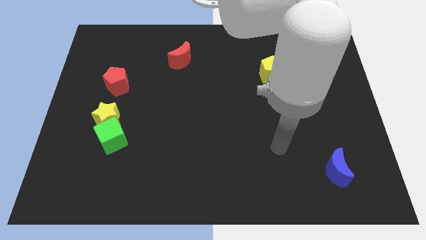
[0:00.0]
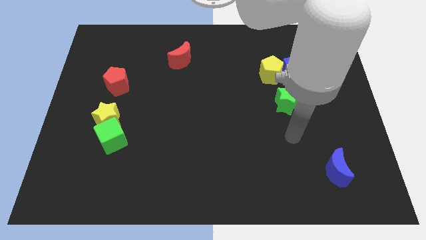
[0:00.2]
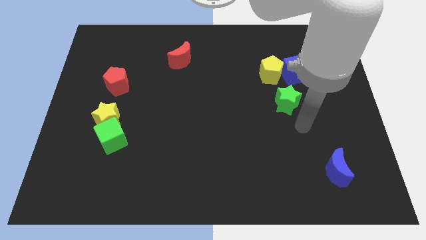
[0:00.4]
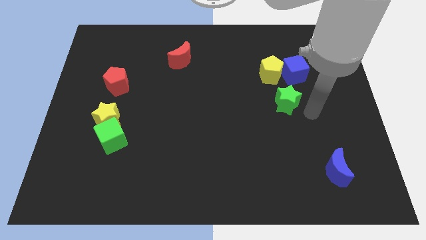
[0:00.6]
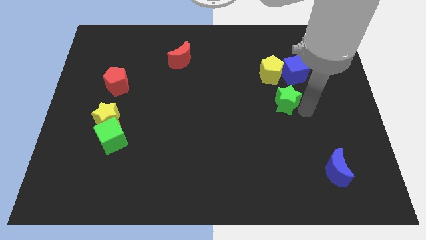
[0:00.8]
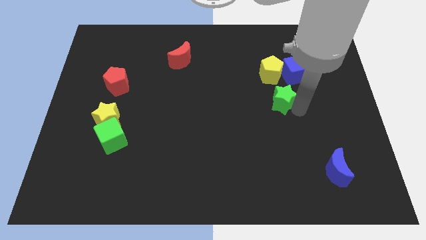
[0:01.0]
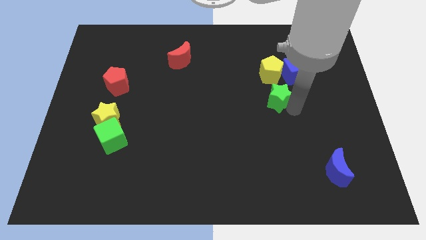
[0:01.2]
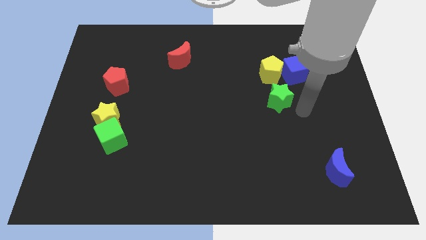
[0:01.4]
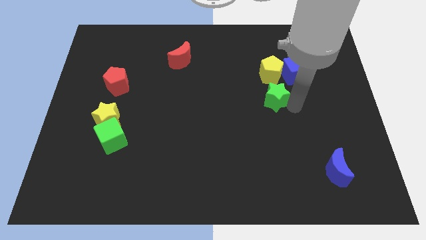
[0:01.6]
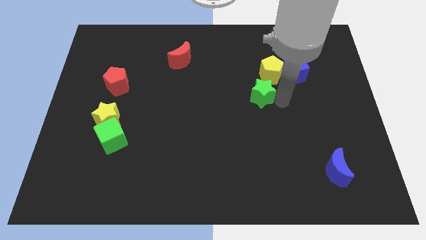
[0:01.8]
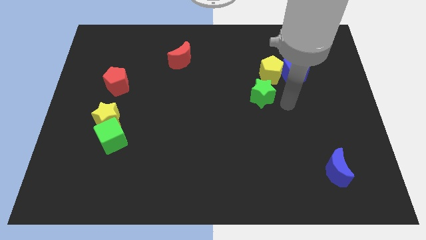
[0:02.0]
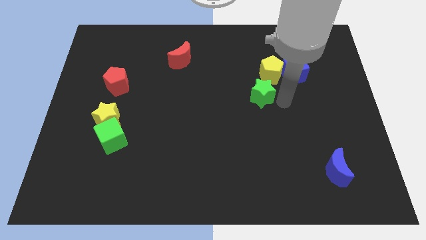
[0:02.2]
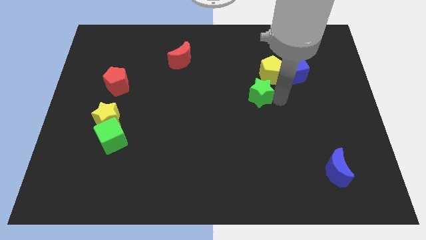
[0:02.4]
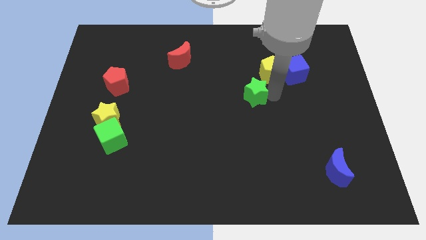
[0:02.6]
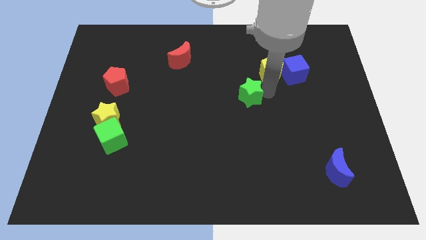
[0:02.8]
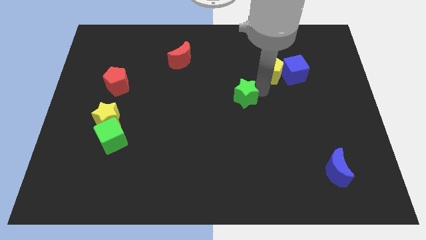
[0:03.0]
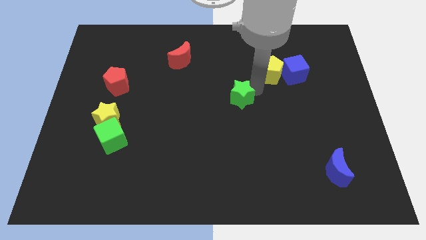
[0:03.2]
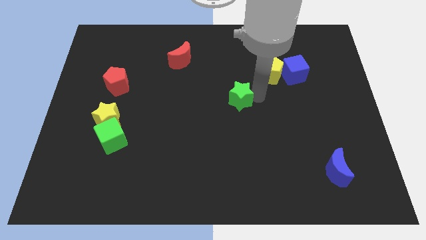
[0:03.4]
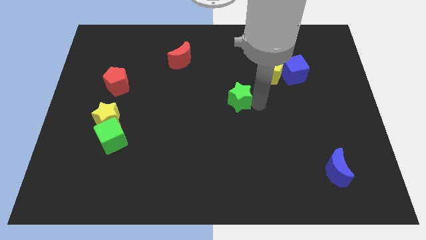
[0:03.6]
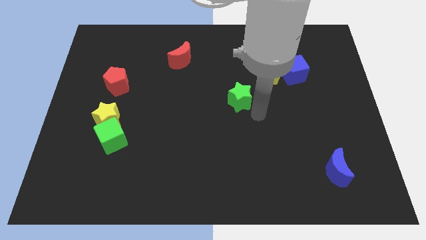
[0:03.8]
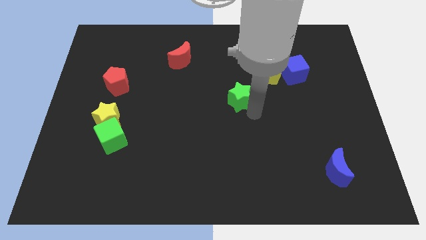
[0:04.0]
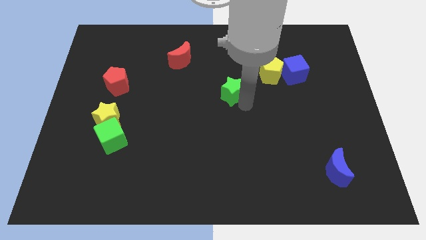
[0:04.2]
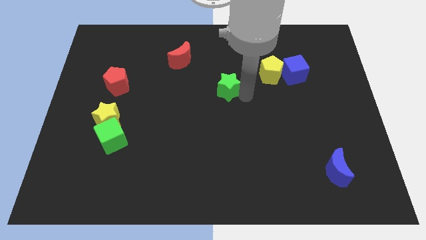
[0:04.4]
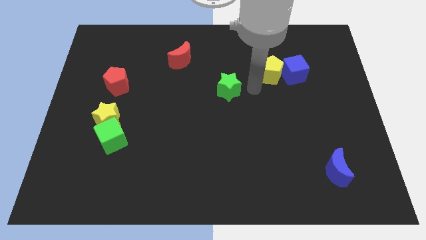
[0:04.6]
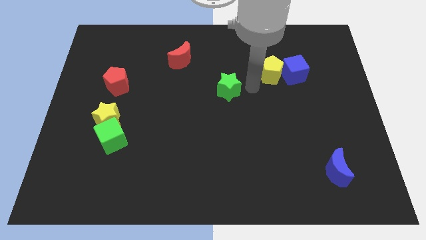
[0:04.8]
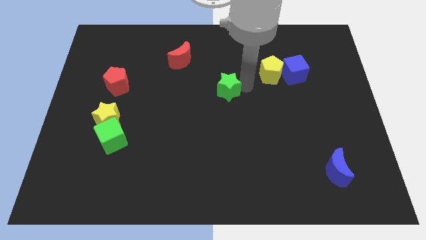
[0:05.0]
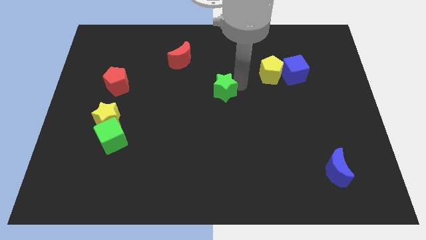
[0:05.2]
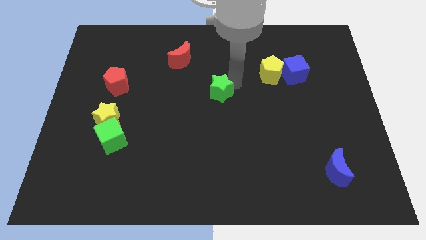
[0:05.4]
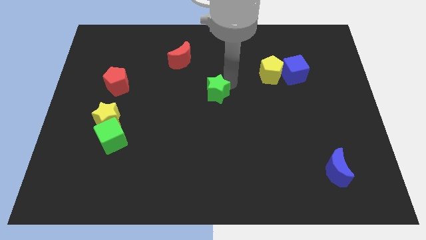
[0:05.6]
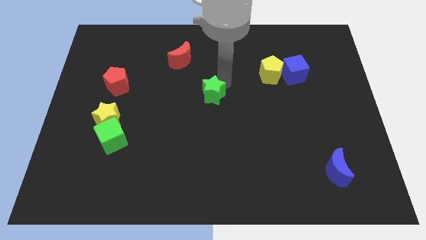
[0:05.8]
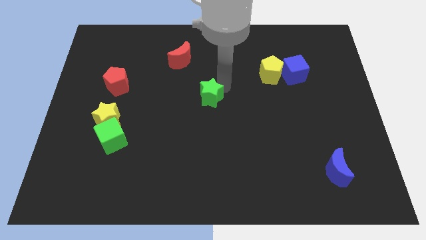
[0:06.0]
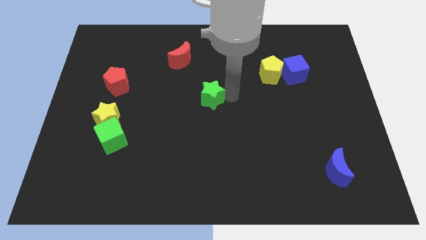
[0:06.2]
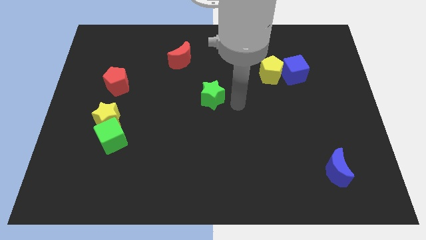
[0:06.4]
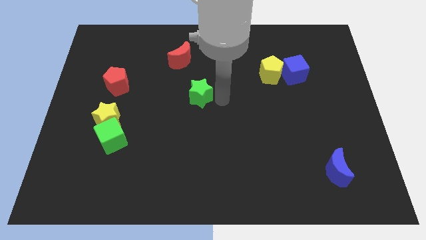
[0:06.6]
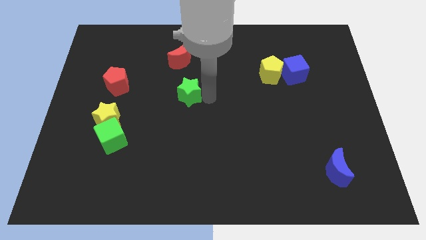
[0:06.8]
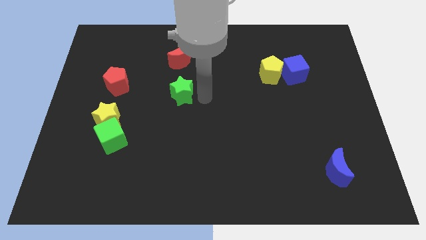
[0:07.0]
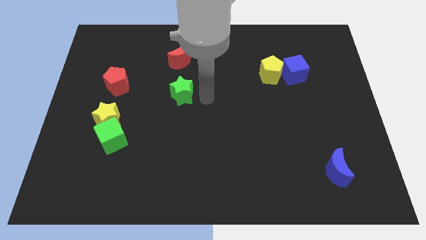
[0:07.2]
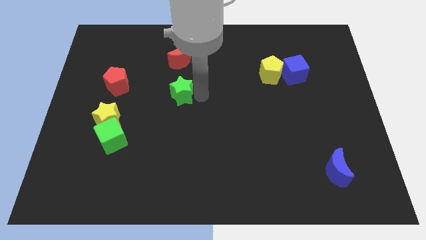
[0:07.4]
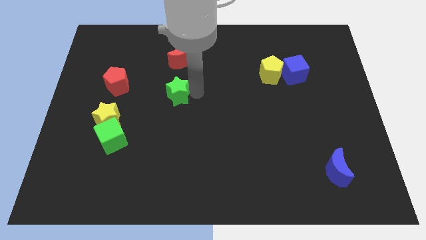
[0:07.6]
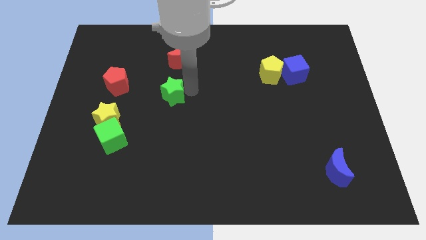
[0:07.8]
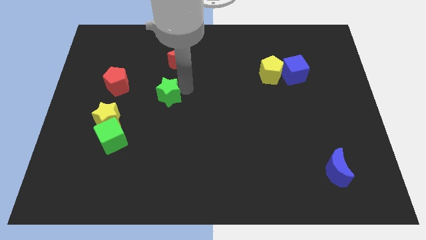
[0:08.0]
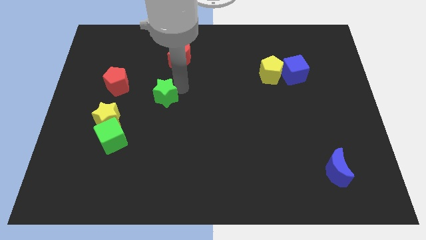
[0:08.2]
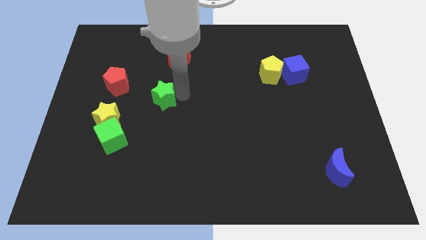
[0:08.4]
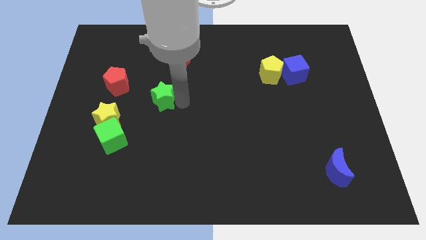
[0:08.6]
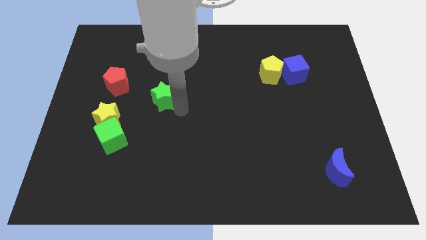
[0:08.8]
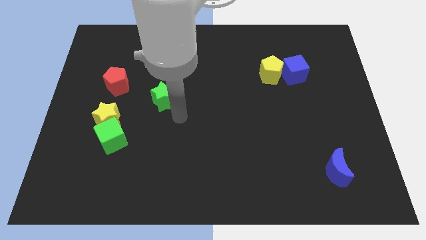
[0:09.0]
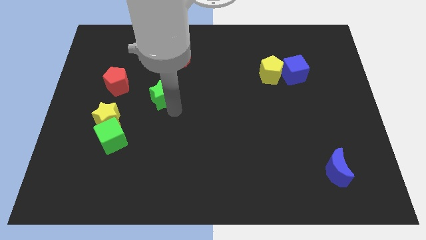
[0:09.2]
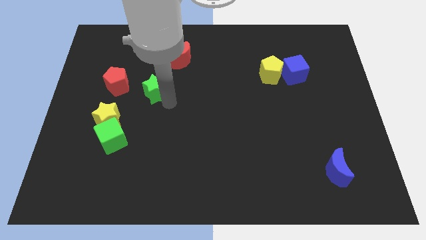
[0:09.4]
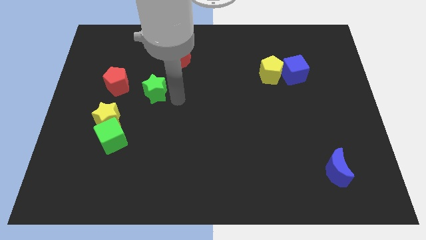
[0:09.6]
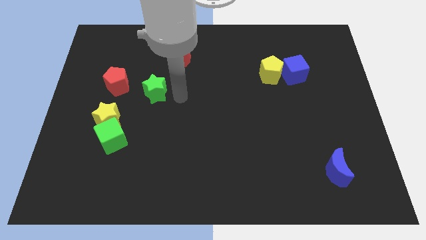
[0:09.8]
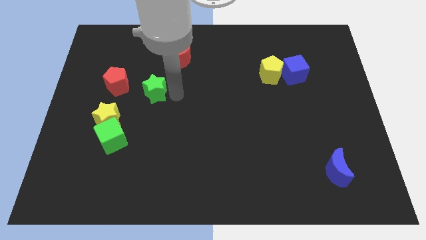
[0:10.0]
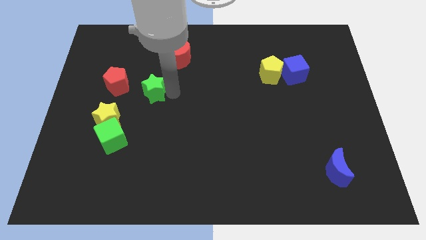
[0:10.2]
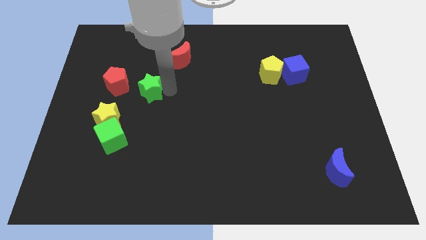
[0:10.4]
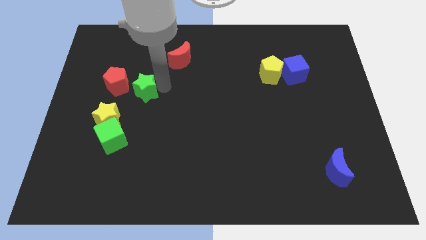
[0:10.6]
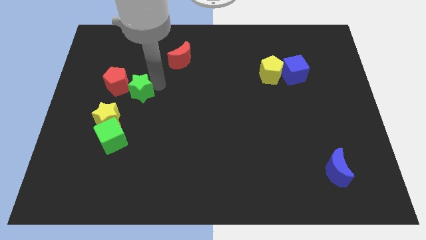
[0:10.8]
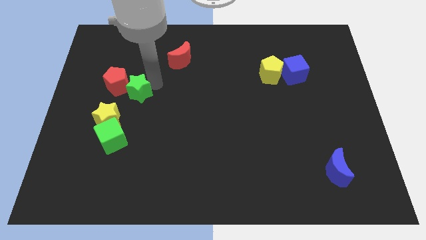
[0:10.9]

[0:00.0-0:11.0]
push the green star towards the red pentagon

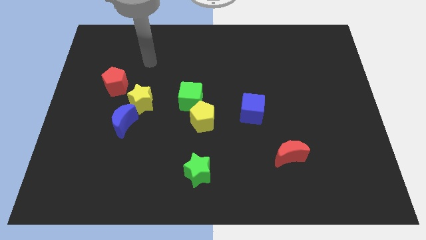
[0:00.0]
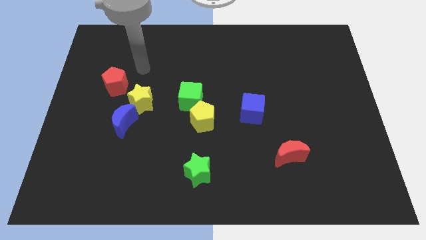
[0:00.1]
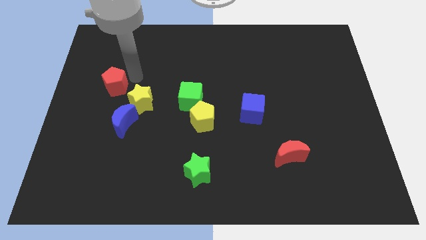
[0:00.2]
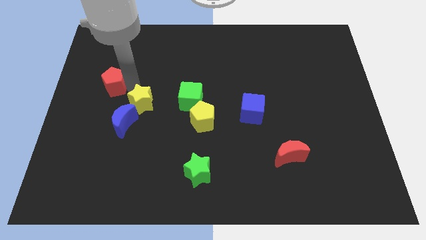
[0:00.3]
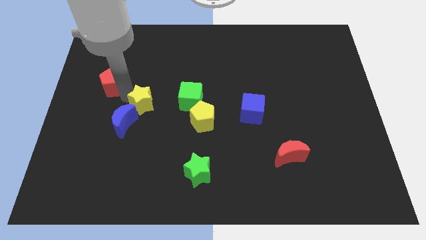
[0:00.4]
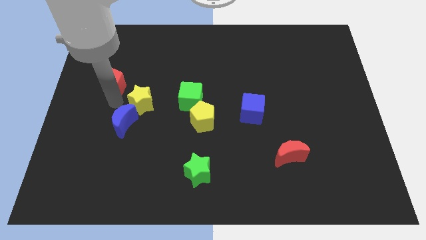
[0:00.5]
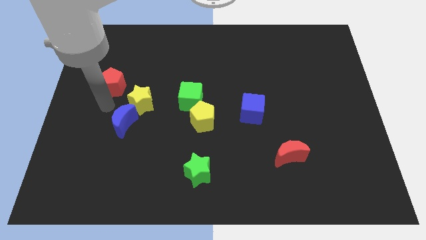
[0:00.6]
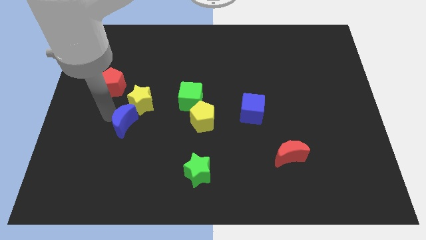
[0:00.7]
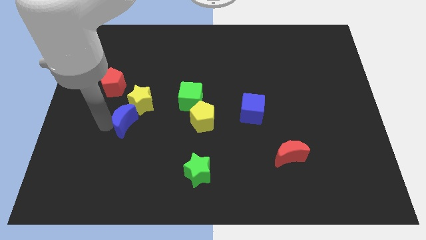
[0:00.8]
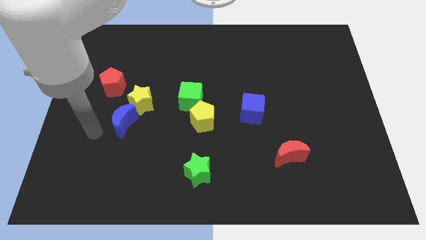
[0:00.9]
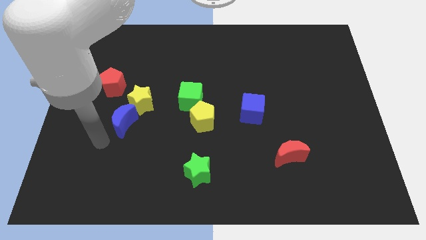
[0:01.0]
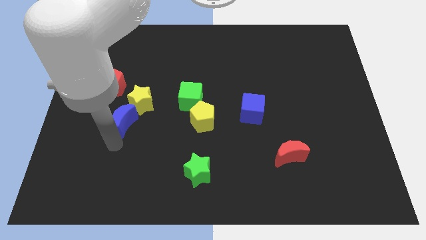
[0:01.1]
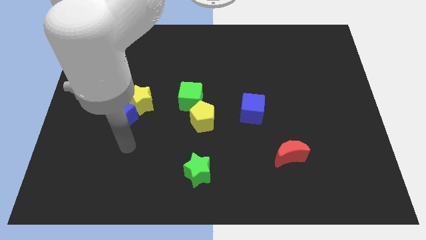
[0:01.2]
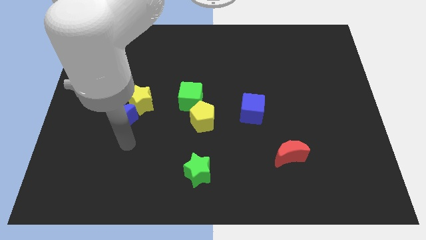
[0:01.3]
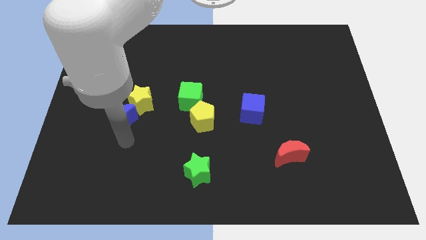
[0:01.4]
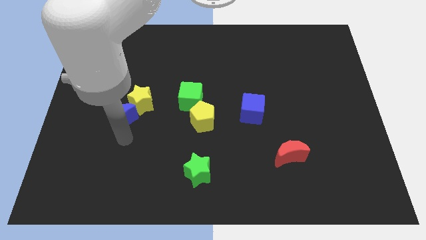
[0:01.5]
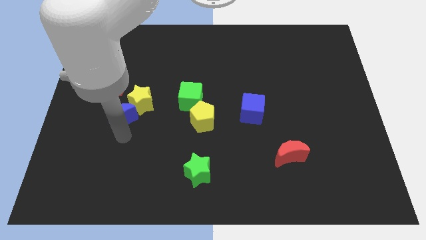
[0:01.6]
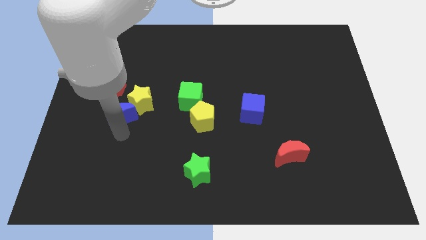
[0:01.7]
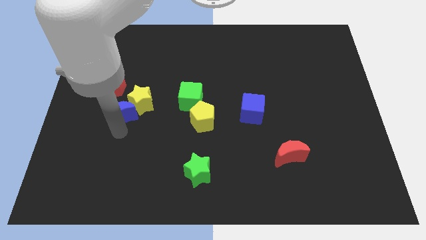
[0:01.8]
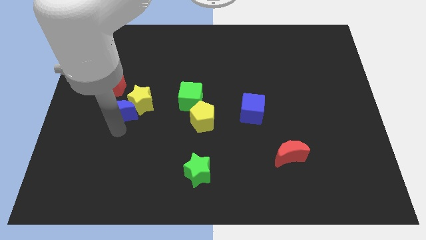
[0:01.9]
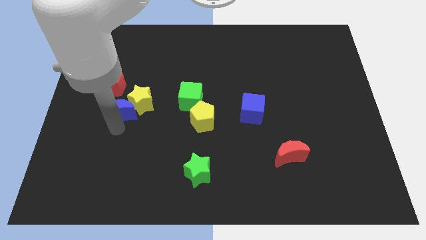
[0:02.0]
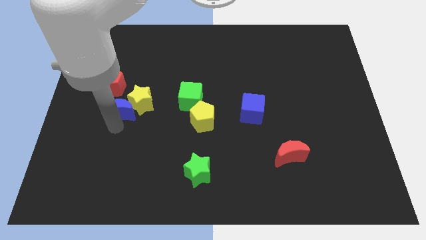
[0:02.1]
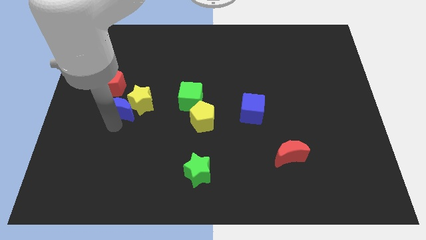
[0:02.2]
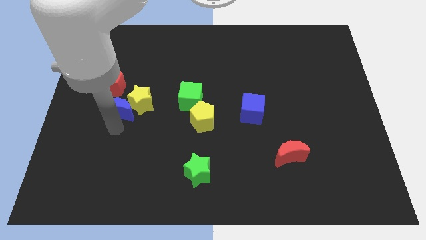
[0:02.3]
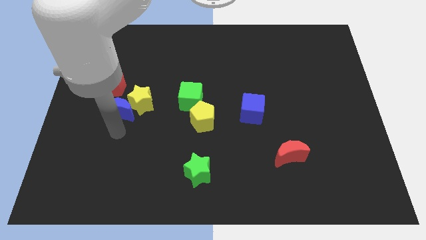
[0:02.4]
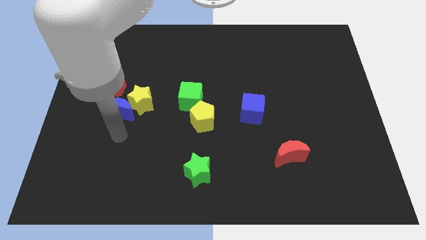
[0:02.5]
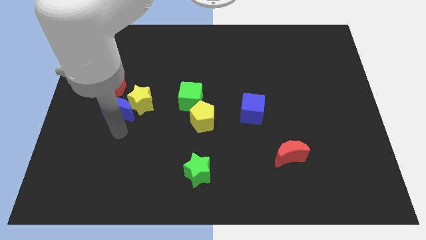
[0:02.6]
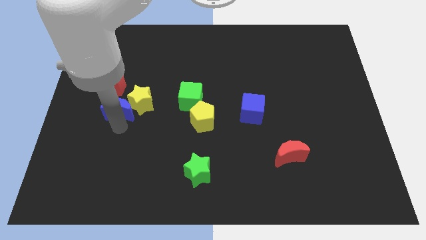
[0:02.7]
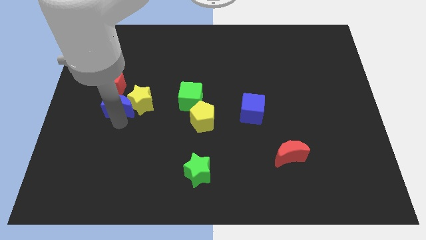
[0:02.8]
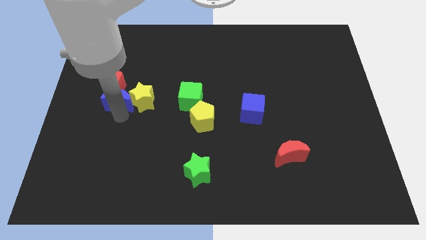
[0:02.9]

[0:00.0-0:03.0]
slide the blue moon close to the red pentagon
